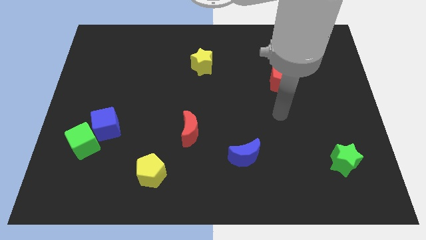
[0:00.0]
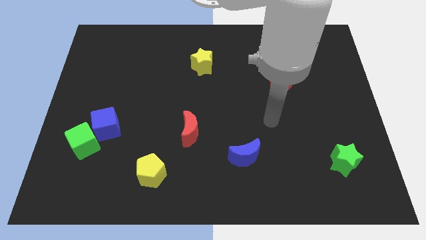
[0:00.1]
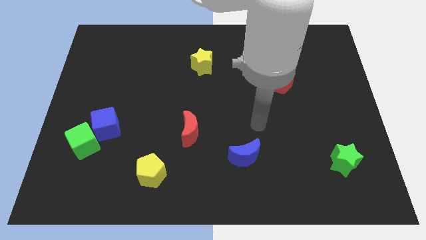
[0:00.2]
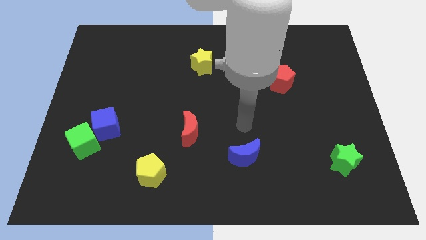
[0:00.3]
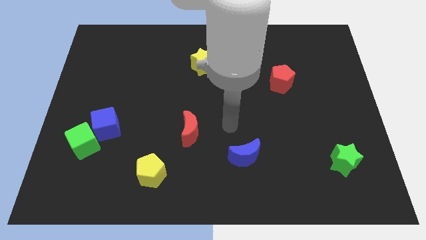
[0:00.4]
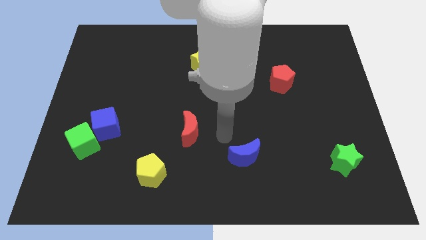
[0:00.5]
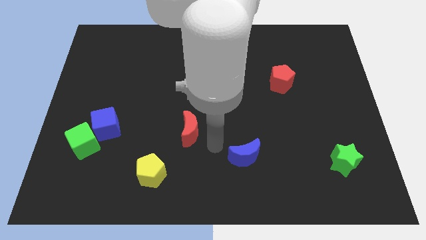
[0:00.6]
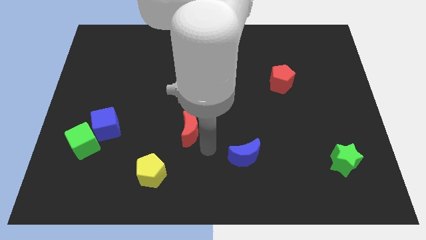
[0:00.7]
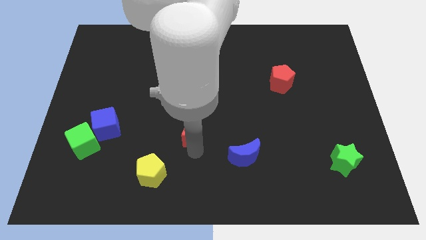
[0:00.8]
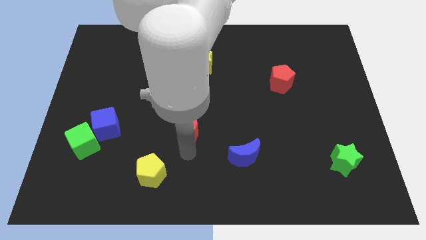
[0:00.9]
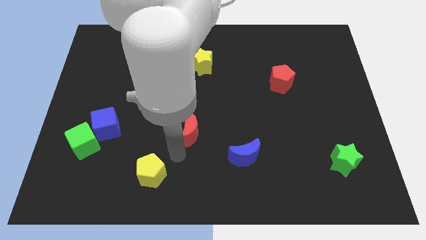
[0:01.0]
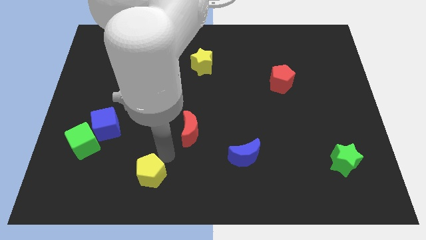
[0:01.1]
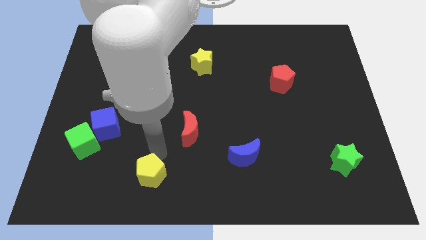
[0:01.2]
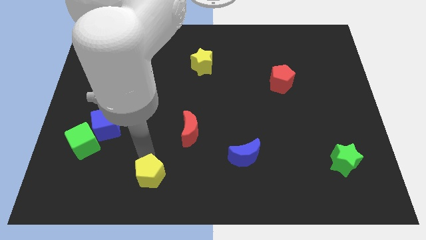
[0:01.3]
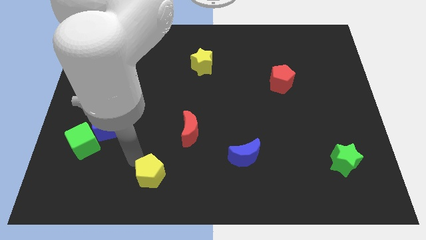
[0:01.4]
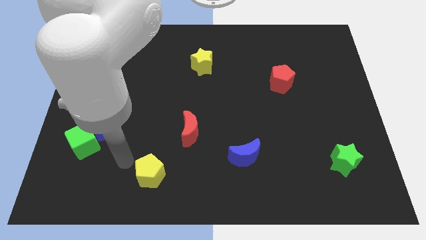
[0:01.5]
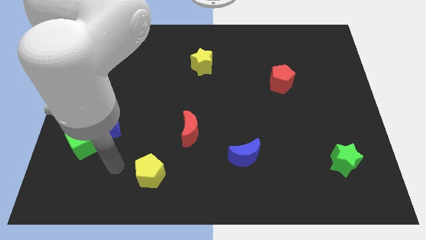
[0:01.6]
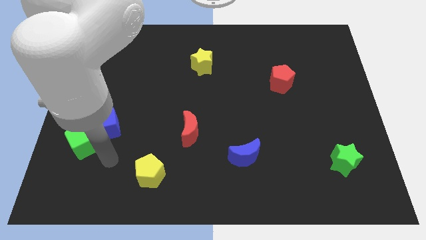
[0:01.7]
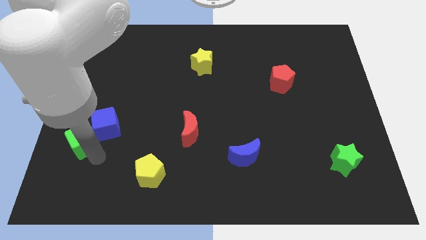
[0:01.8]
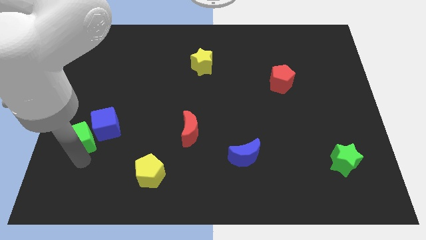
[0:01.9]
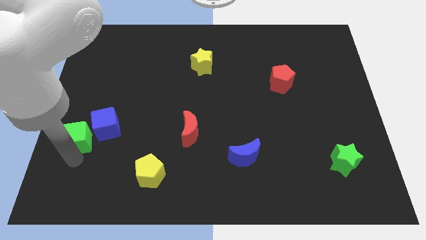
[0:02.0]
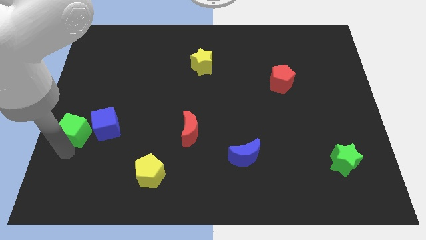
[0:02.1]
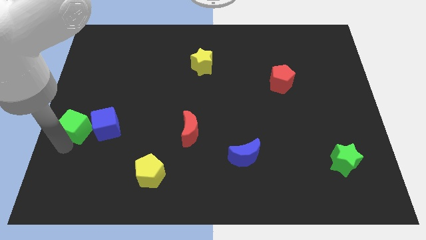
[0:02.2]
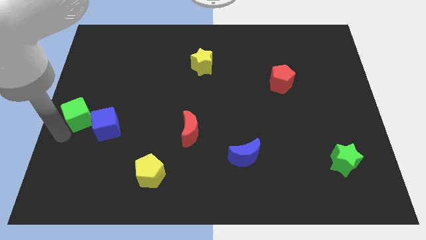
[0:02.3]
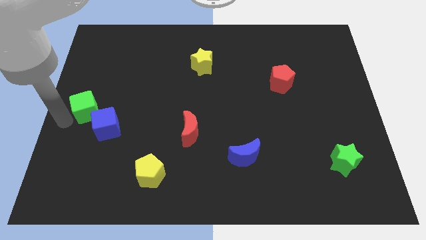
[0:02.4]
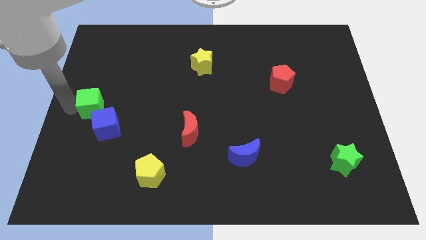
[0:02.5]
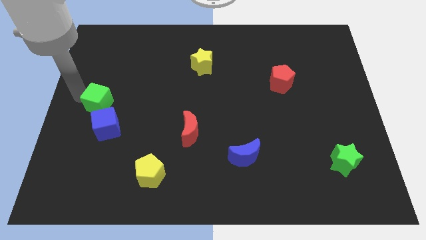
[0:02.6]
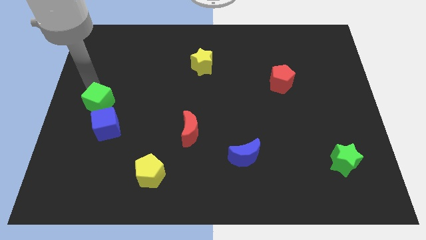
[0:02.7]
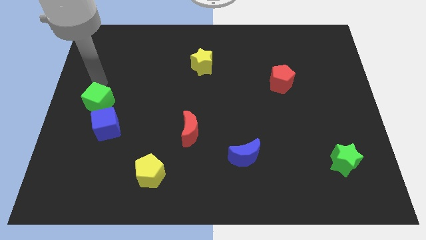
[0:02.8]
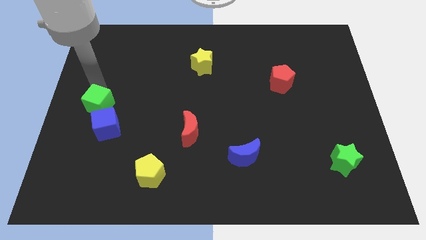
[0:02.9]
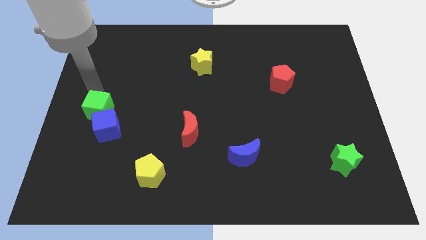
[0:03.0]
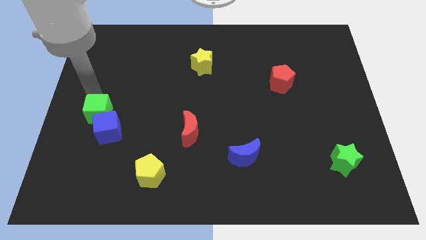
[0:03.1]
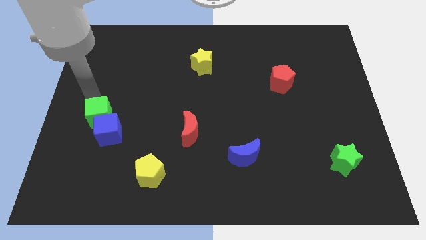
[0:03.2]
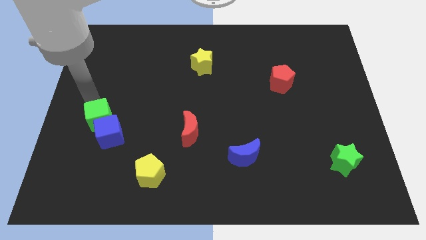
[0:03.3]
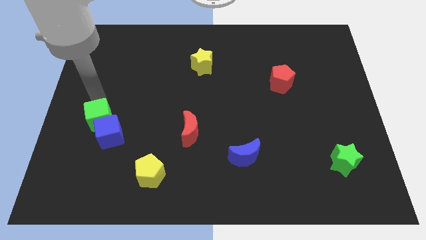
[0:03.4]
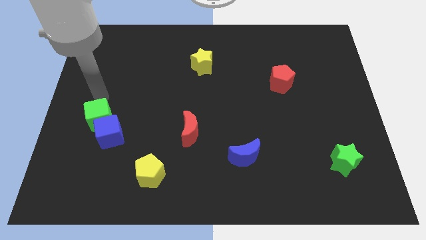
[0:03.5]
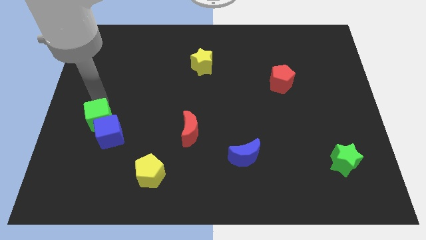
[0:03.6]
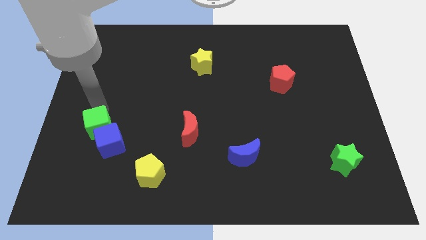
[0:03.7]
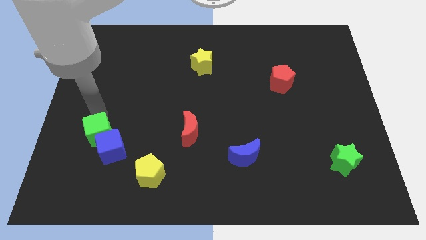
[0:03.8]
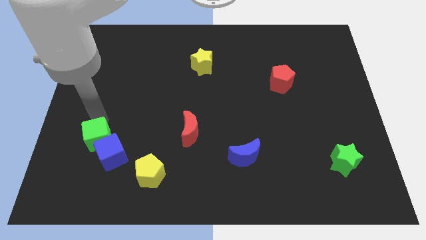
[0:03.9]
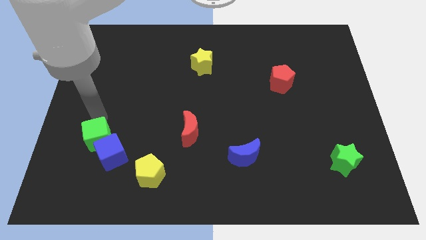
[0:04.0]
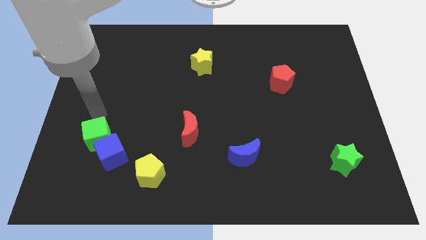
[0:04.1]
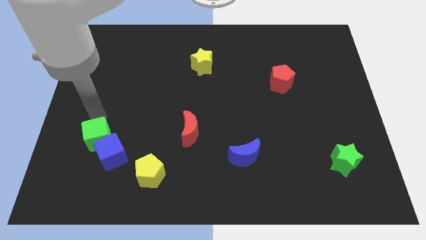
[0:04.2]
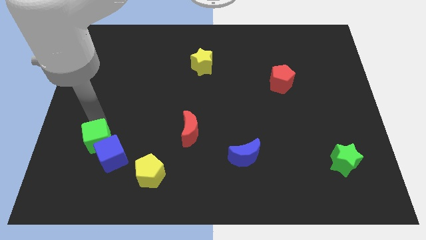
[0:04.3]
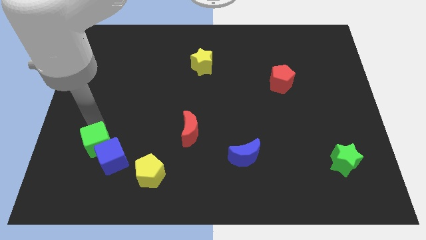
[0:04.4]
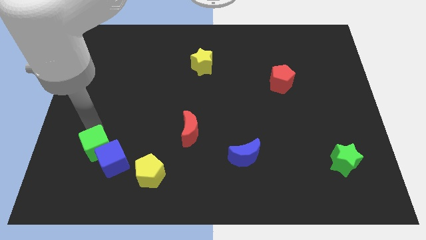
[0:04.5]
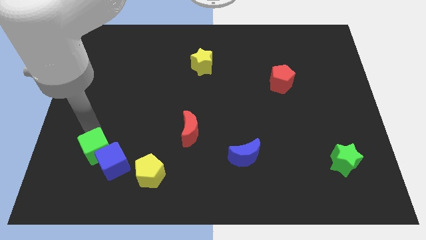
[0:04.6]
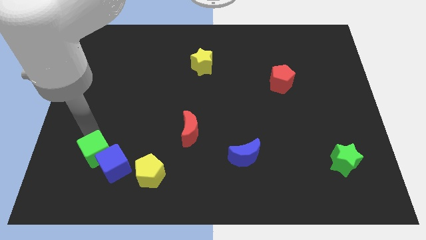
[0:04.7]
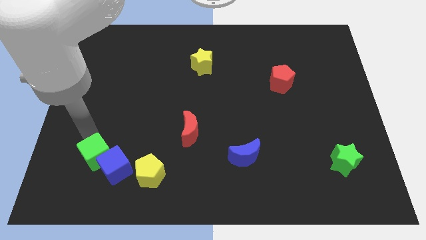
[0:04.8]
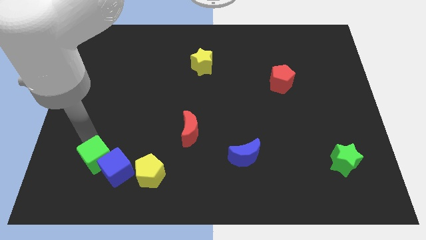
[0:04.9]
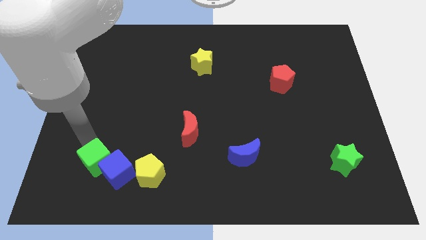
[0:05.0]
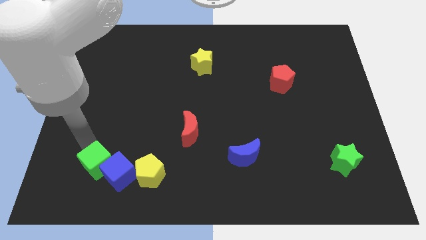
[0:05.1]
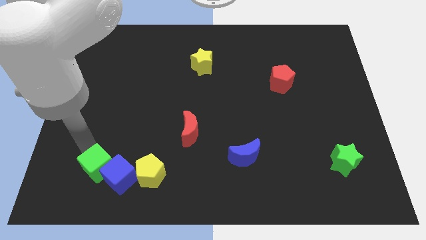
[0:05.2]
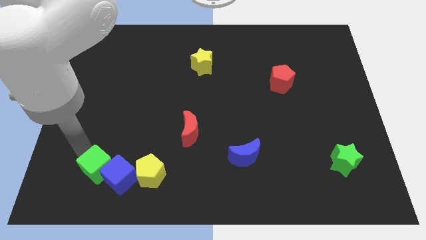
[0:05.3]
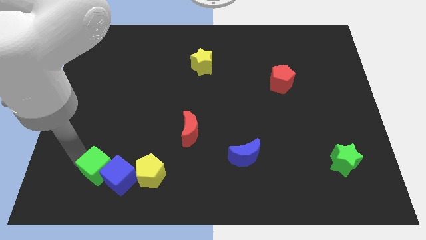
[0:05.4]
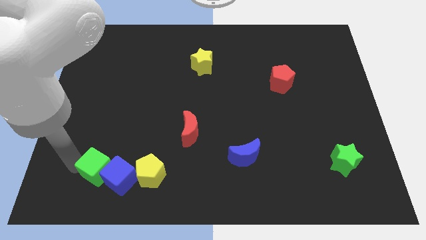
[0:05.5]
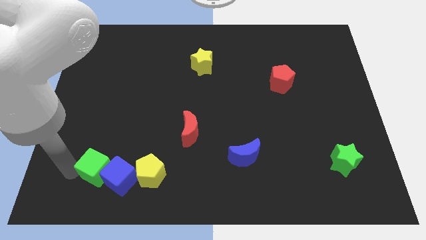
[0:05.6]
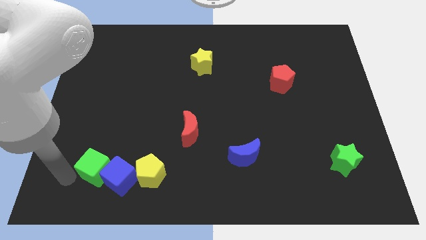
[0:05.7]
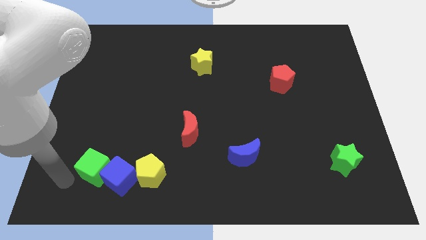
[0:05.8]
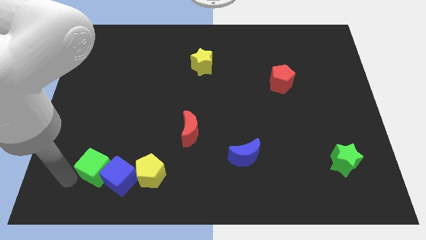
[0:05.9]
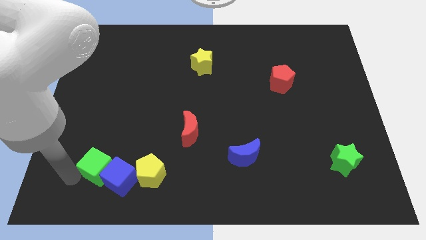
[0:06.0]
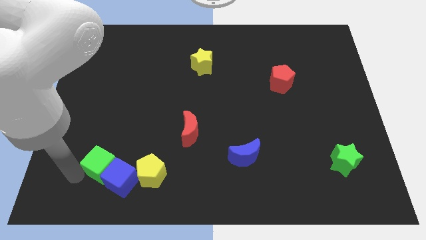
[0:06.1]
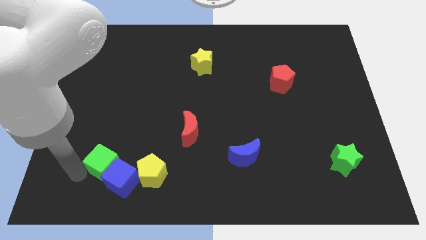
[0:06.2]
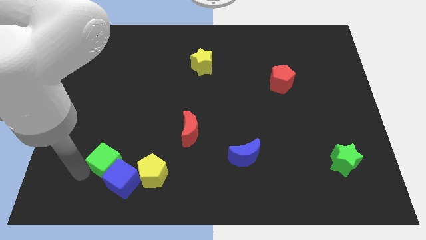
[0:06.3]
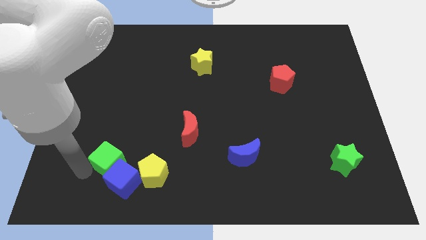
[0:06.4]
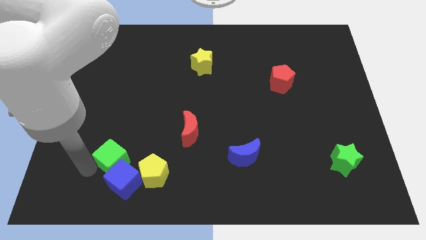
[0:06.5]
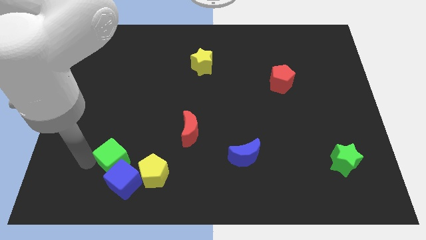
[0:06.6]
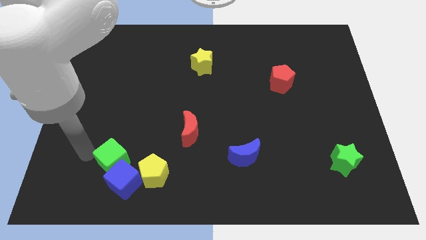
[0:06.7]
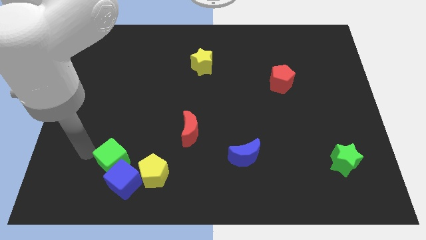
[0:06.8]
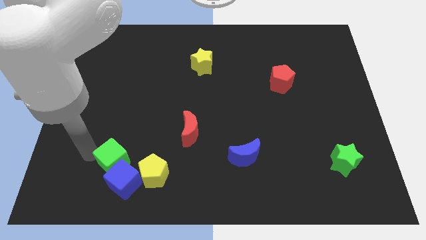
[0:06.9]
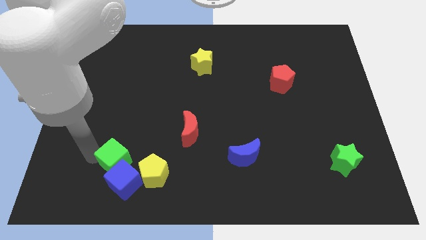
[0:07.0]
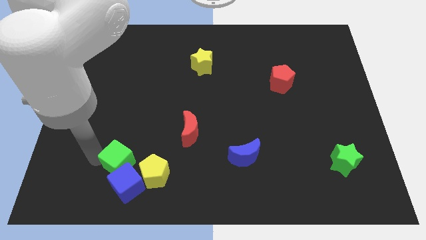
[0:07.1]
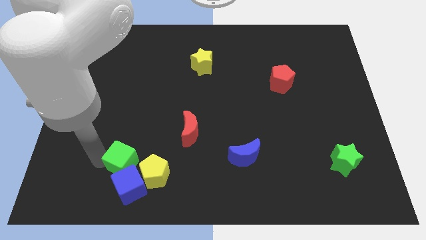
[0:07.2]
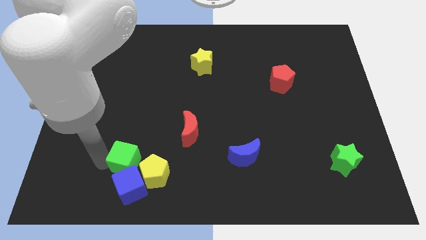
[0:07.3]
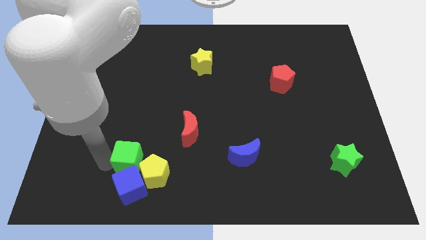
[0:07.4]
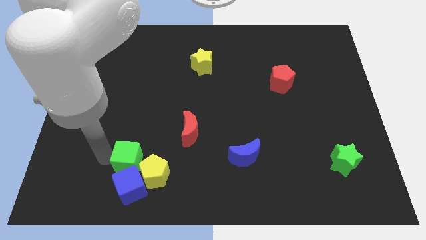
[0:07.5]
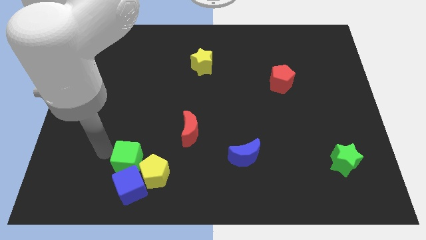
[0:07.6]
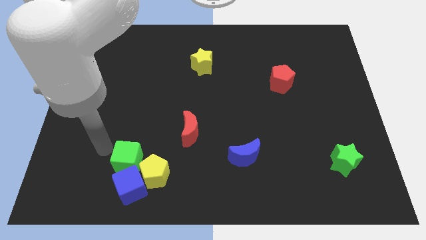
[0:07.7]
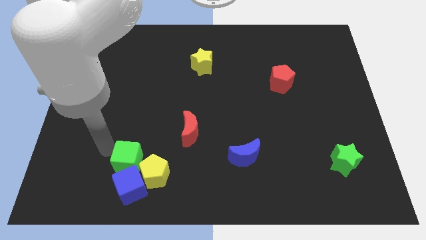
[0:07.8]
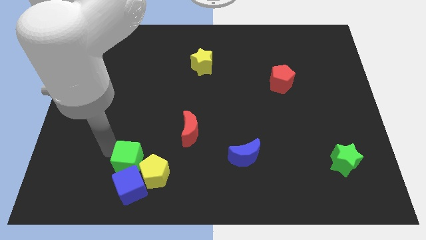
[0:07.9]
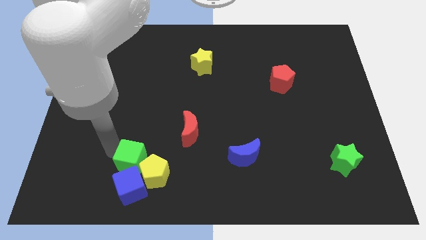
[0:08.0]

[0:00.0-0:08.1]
slide the green cube towards the yellow pentagon
